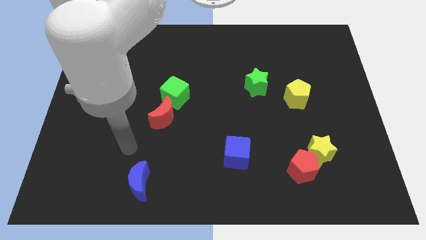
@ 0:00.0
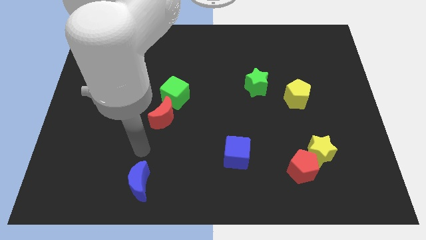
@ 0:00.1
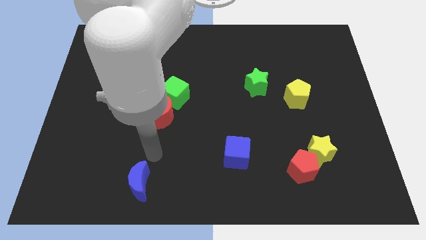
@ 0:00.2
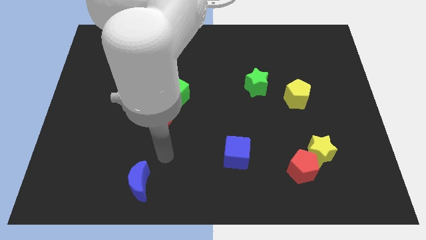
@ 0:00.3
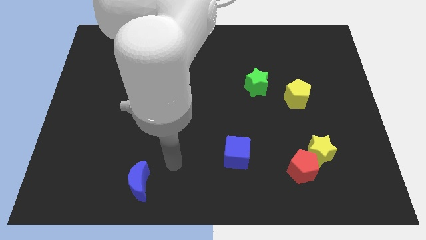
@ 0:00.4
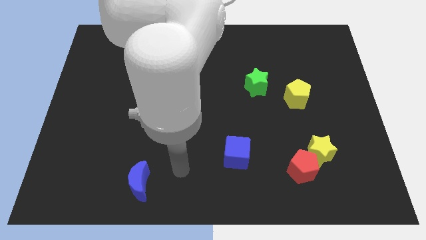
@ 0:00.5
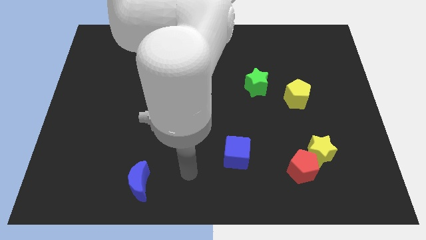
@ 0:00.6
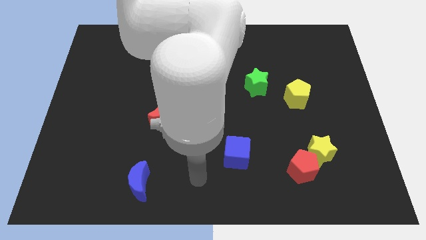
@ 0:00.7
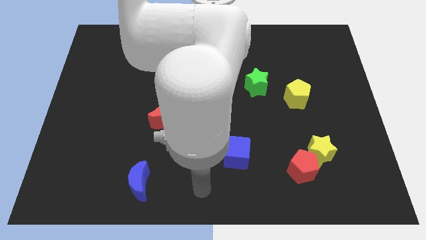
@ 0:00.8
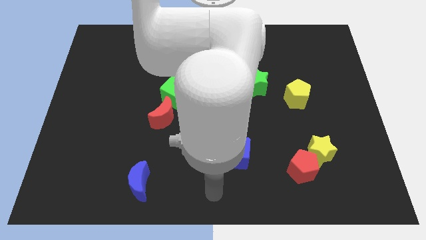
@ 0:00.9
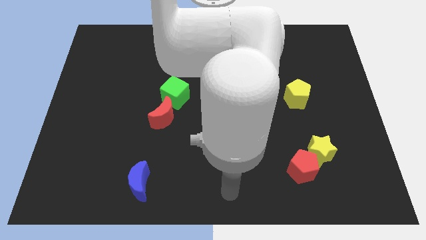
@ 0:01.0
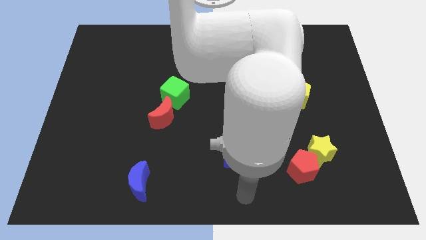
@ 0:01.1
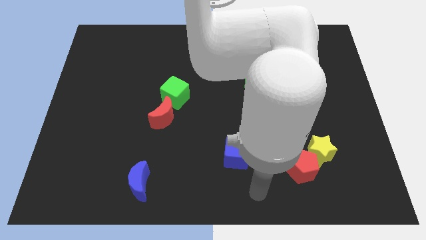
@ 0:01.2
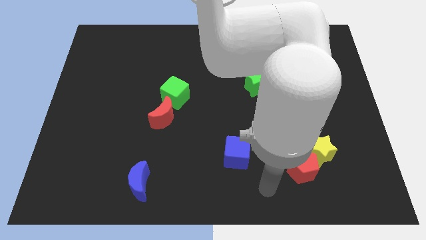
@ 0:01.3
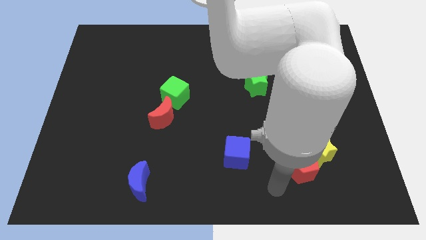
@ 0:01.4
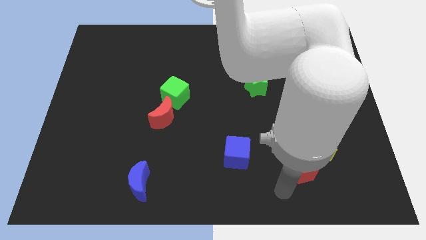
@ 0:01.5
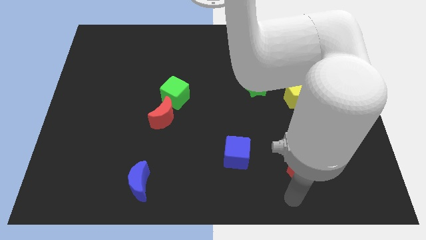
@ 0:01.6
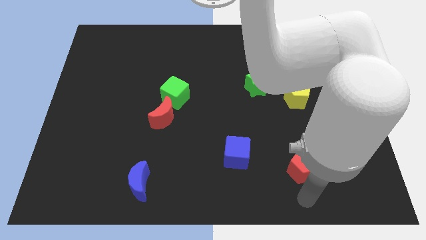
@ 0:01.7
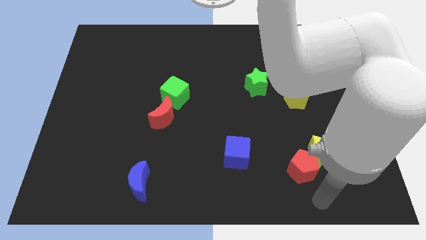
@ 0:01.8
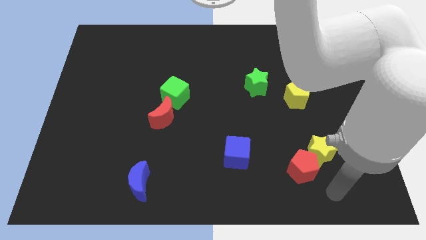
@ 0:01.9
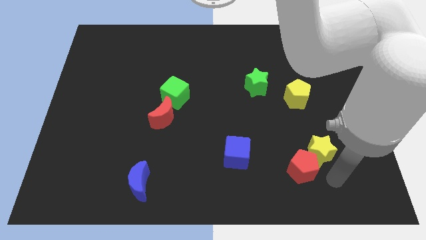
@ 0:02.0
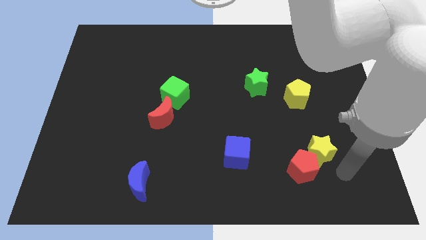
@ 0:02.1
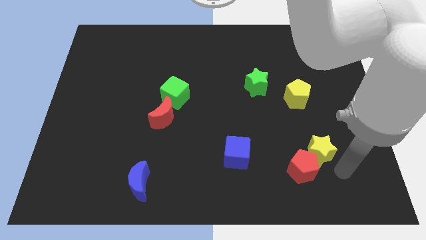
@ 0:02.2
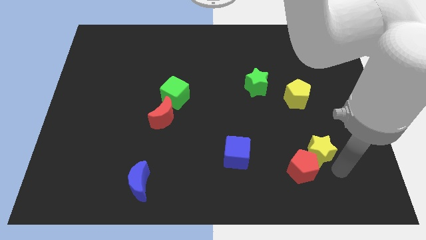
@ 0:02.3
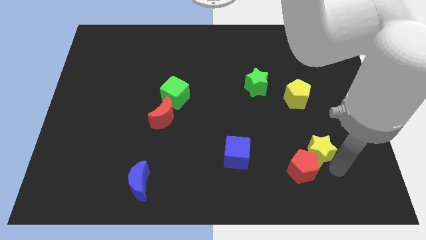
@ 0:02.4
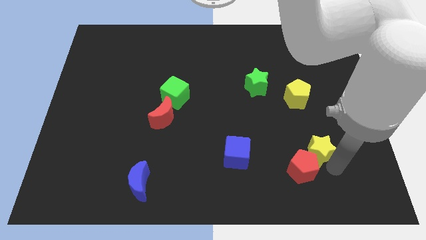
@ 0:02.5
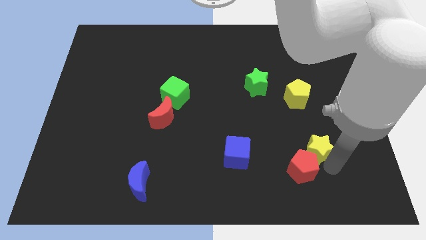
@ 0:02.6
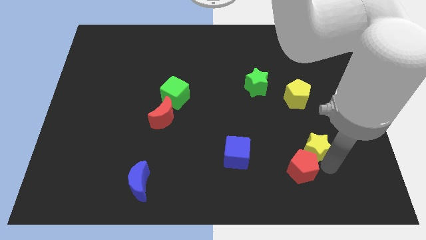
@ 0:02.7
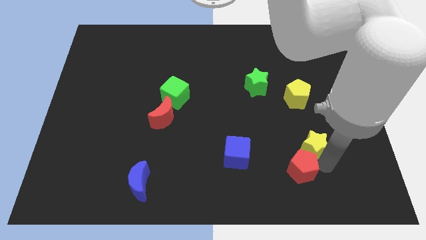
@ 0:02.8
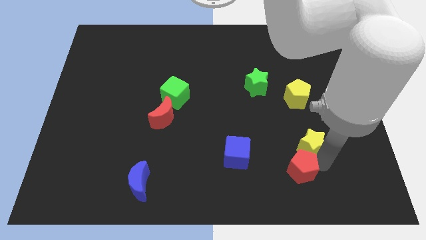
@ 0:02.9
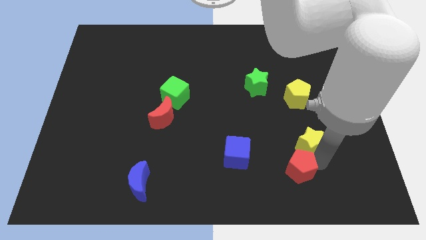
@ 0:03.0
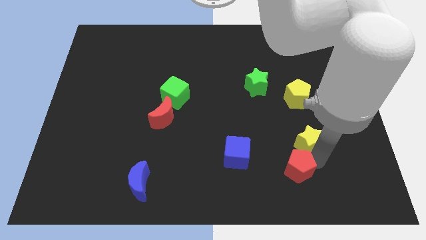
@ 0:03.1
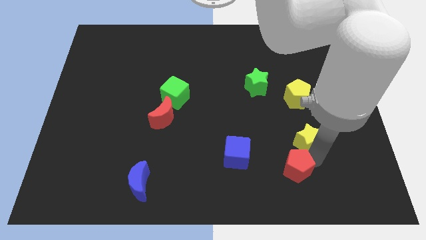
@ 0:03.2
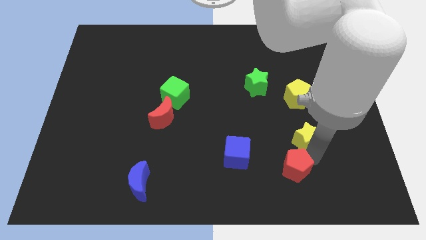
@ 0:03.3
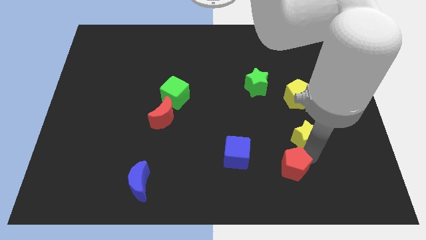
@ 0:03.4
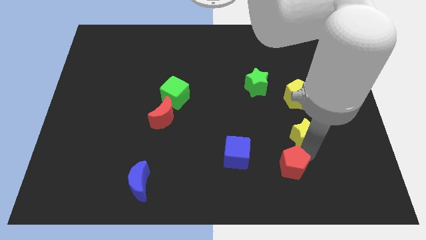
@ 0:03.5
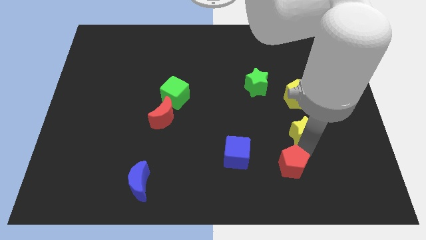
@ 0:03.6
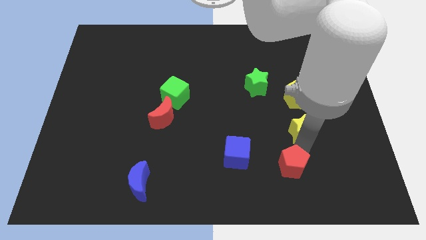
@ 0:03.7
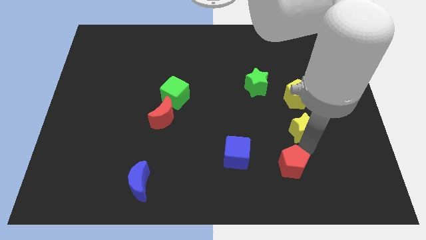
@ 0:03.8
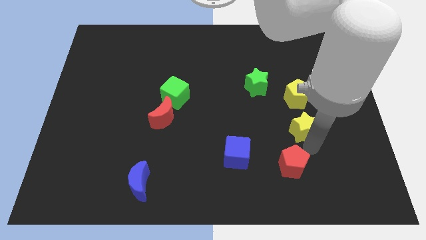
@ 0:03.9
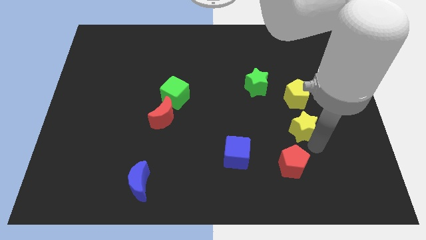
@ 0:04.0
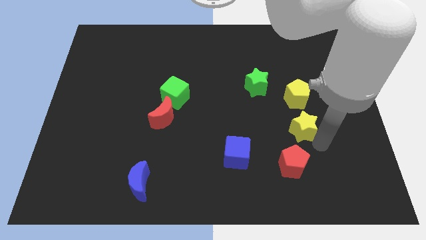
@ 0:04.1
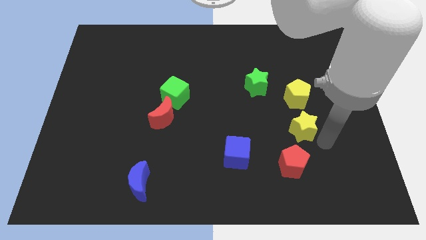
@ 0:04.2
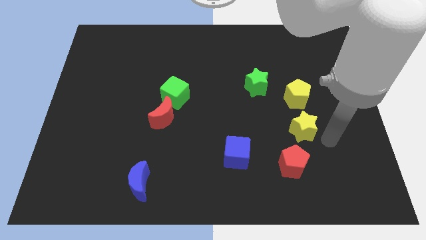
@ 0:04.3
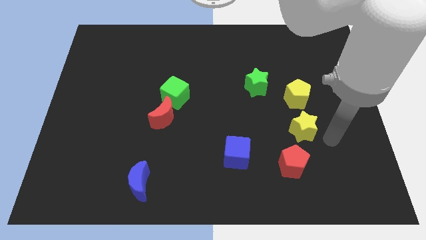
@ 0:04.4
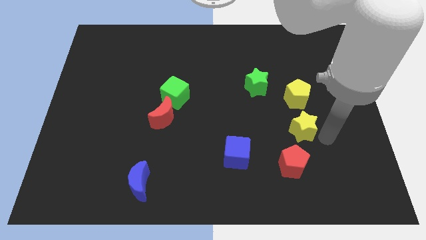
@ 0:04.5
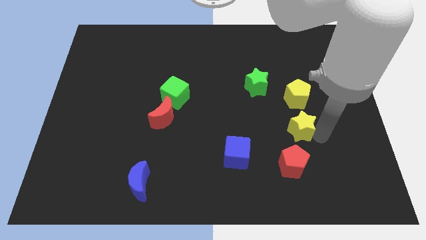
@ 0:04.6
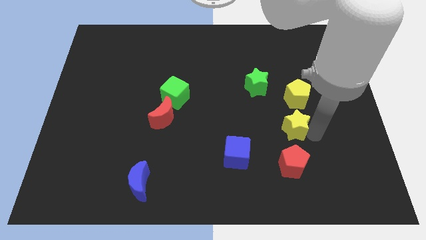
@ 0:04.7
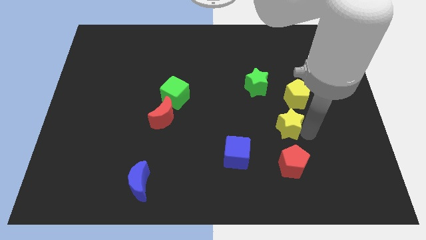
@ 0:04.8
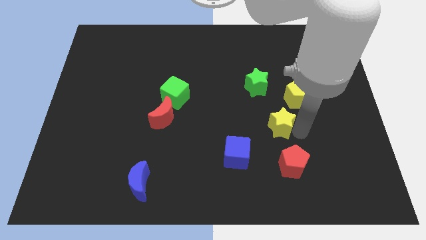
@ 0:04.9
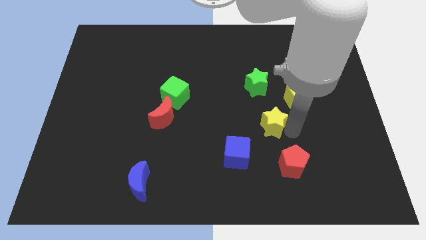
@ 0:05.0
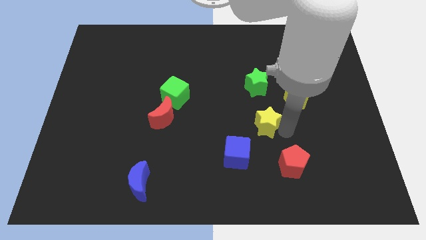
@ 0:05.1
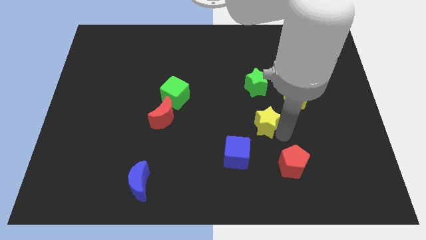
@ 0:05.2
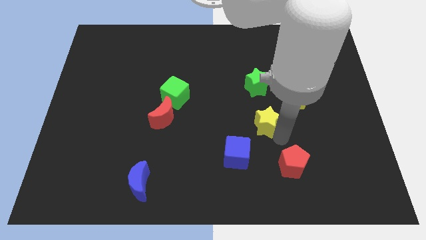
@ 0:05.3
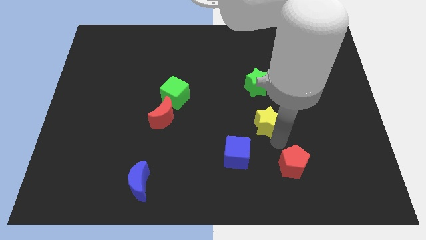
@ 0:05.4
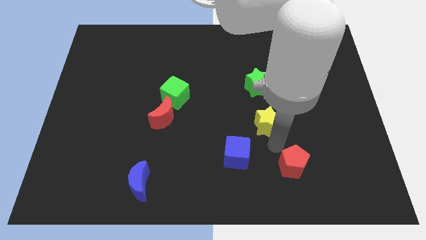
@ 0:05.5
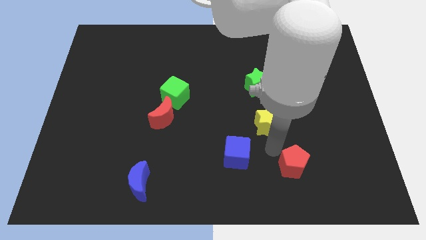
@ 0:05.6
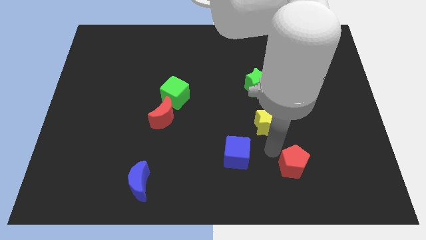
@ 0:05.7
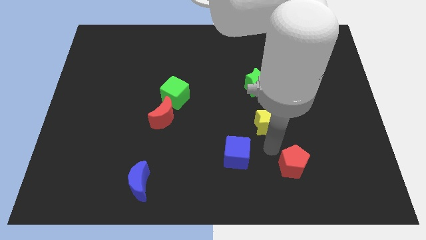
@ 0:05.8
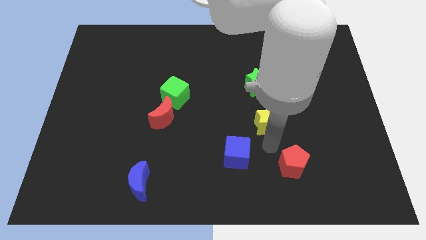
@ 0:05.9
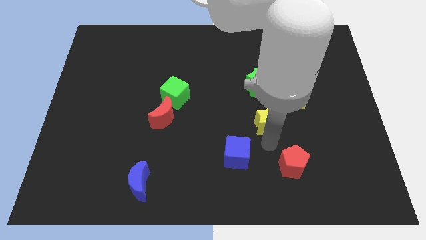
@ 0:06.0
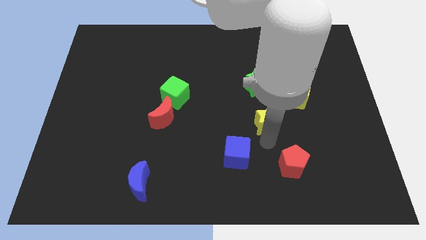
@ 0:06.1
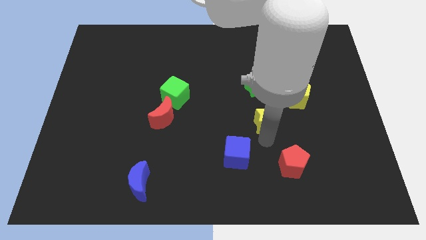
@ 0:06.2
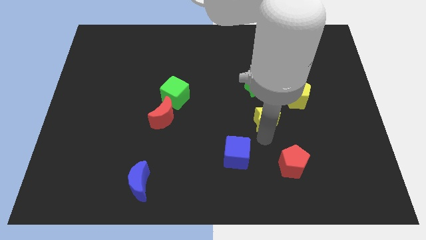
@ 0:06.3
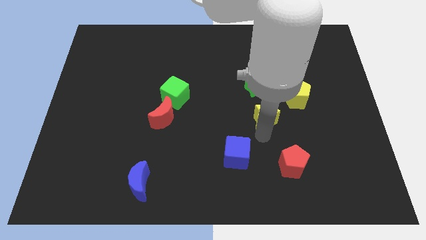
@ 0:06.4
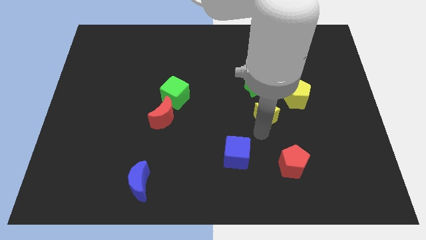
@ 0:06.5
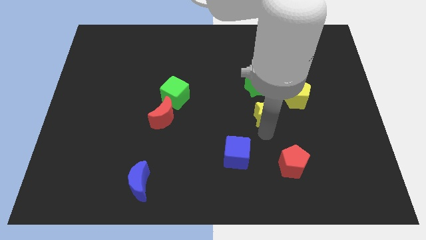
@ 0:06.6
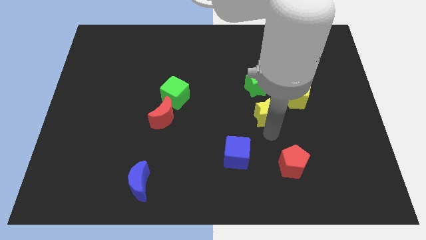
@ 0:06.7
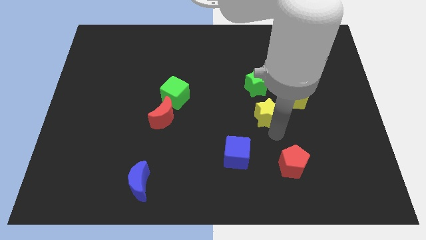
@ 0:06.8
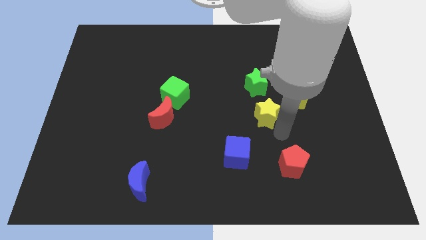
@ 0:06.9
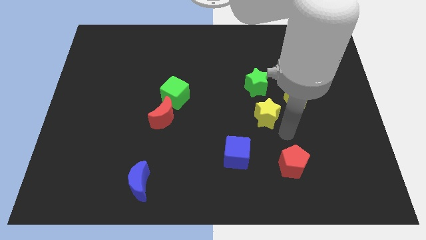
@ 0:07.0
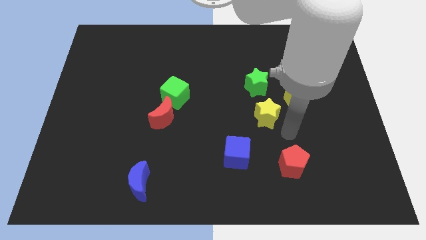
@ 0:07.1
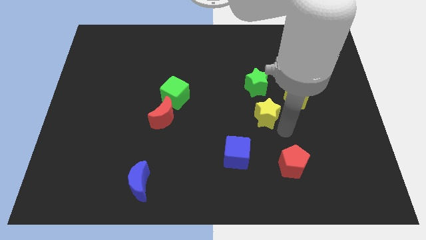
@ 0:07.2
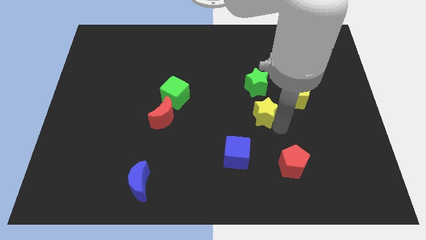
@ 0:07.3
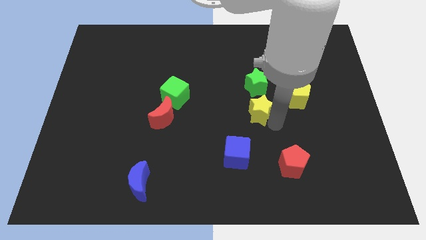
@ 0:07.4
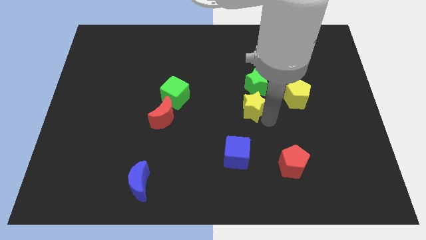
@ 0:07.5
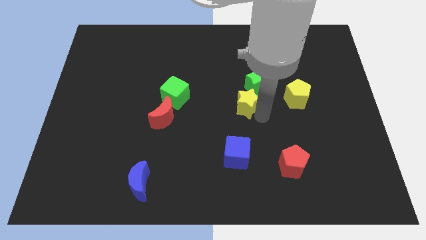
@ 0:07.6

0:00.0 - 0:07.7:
slide the yellow star up and to the left

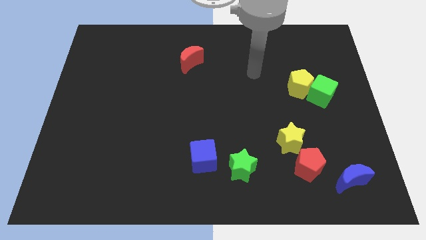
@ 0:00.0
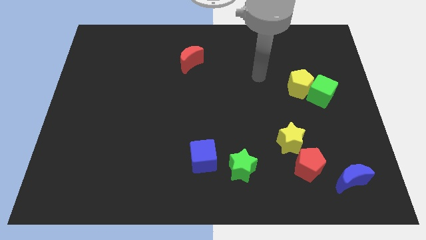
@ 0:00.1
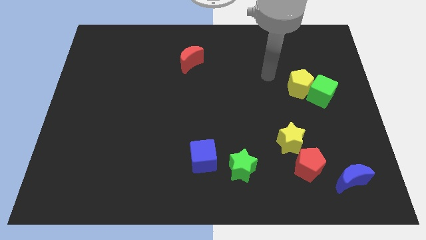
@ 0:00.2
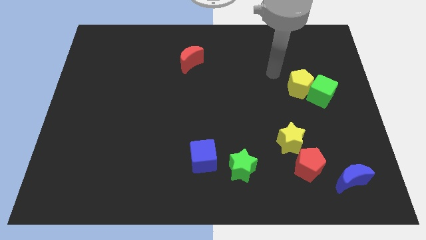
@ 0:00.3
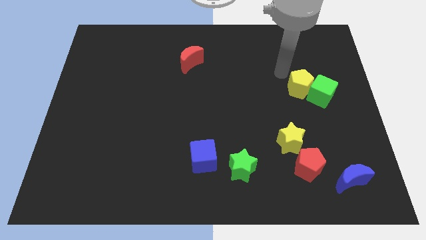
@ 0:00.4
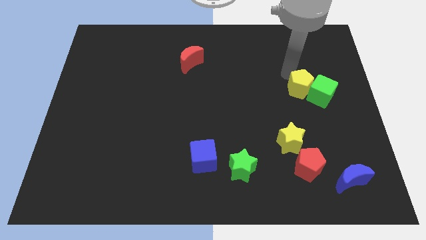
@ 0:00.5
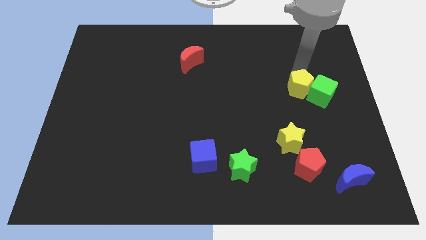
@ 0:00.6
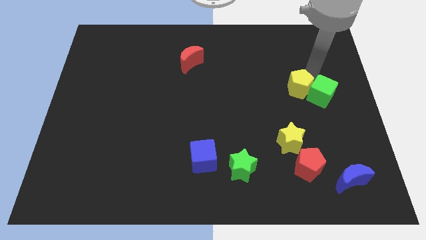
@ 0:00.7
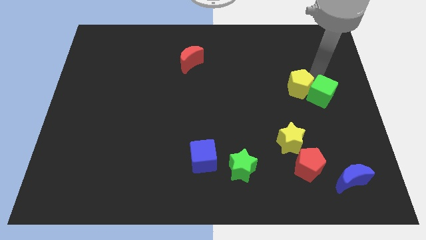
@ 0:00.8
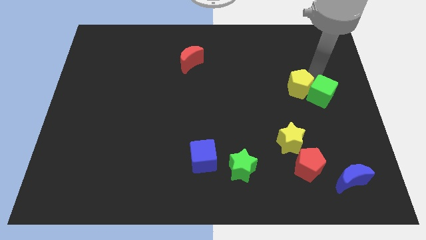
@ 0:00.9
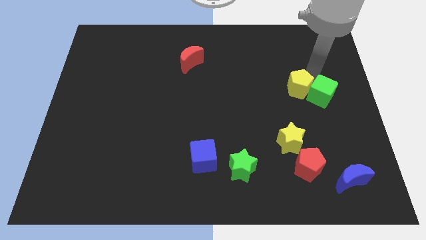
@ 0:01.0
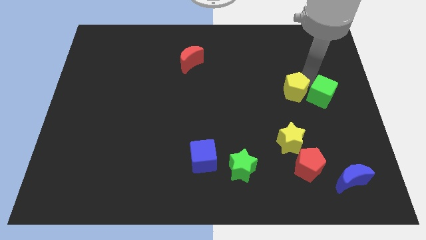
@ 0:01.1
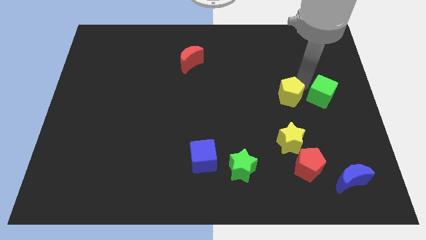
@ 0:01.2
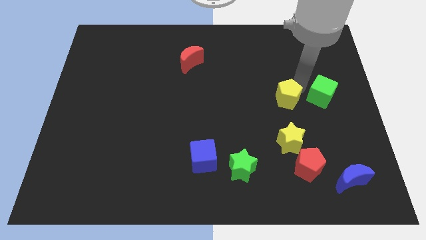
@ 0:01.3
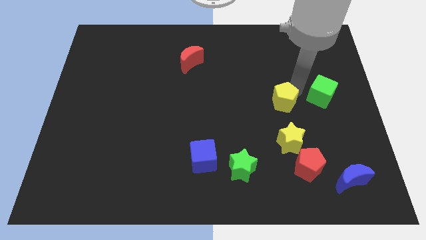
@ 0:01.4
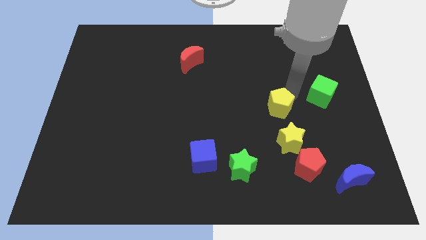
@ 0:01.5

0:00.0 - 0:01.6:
slightly move the yellow pentagon diagonally downwards and to the left
